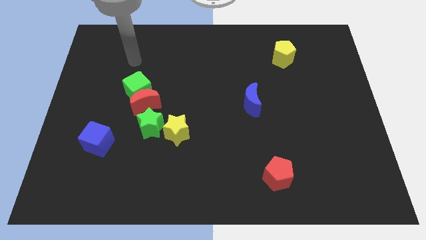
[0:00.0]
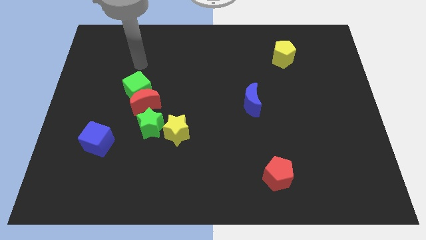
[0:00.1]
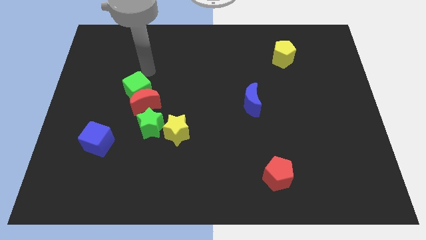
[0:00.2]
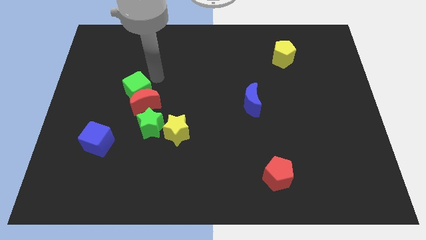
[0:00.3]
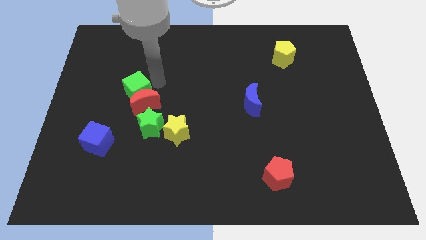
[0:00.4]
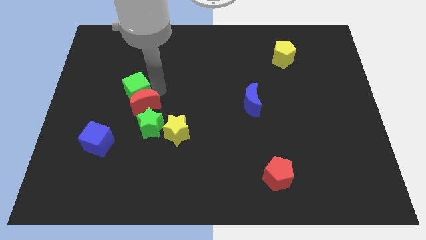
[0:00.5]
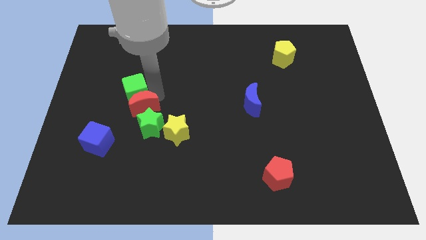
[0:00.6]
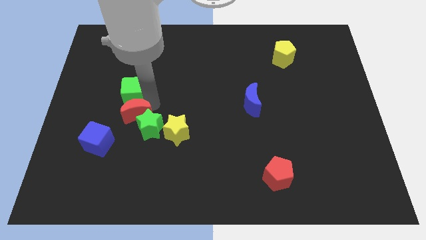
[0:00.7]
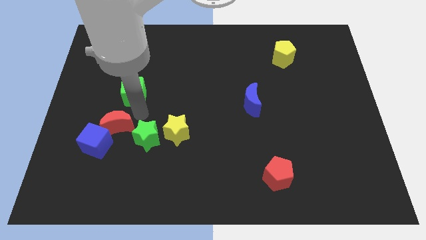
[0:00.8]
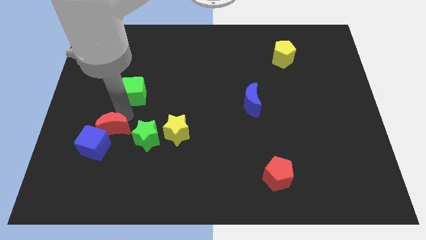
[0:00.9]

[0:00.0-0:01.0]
move the green cube away from the red moon

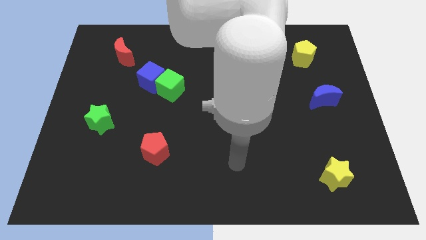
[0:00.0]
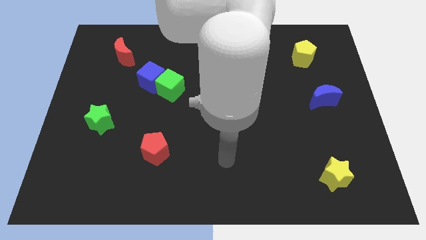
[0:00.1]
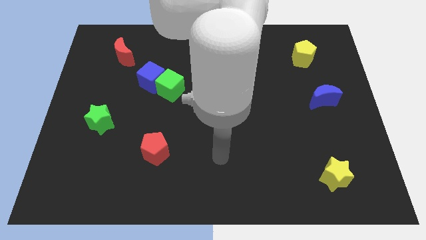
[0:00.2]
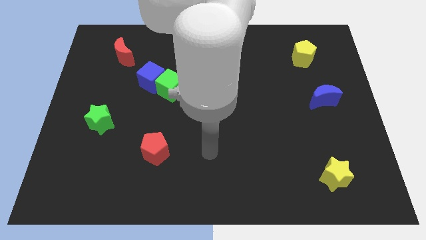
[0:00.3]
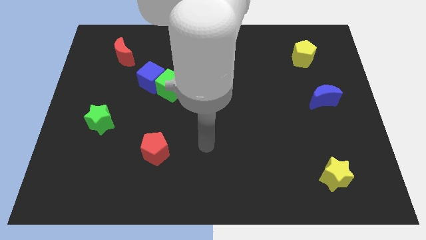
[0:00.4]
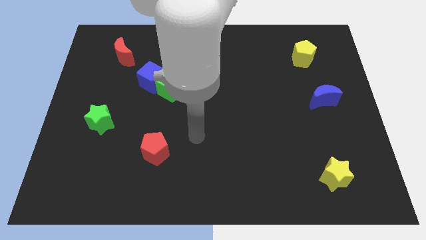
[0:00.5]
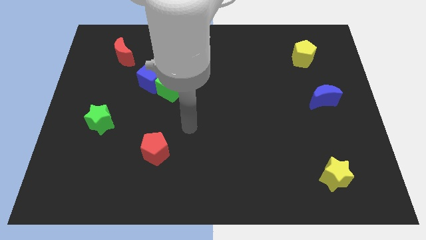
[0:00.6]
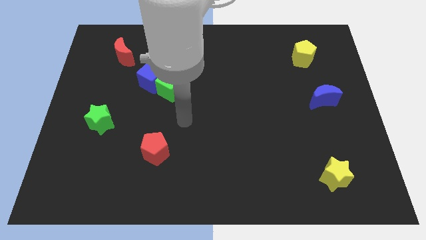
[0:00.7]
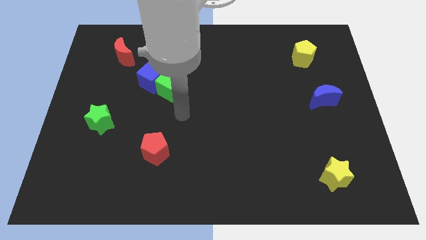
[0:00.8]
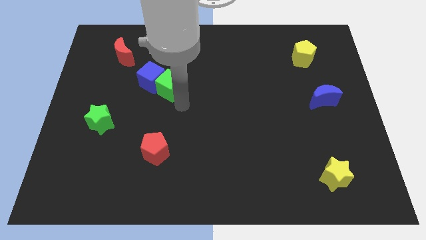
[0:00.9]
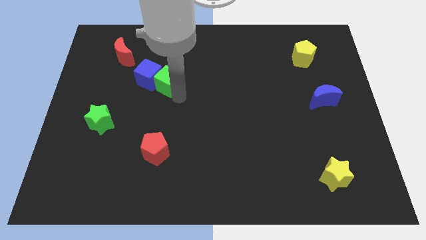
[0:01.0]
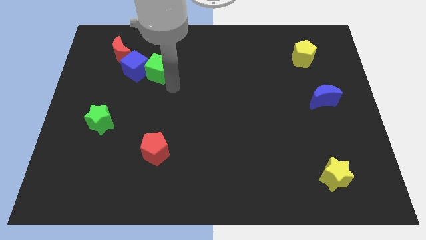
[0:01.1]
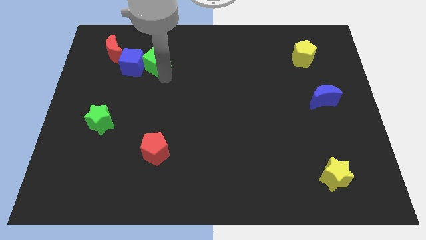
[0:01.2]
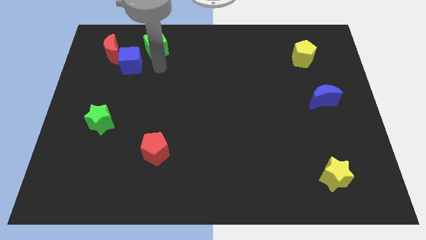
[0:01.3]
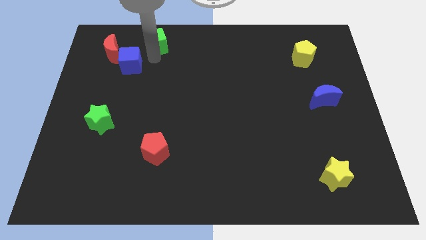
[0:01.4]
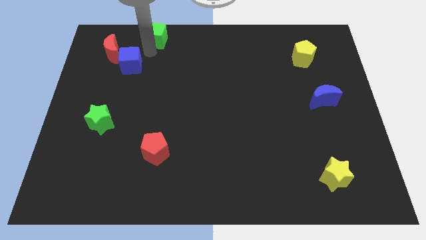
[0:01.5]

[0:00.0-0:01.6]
separate the blue cube from the green cube

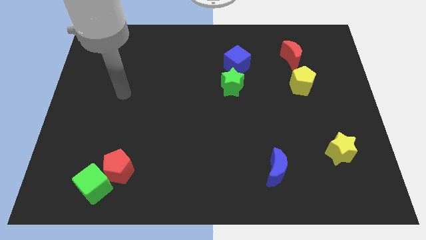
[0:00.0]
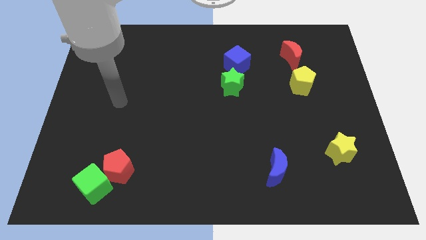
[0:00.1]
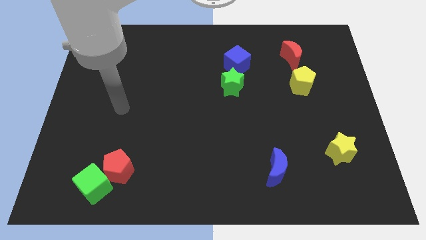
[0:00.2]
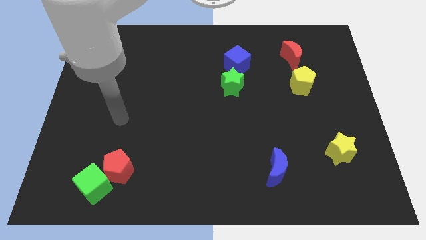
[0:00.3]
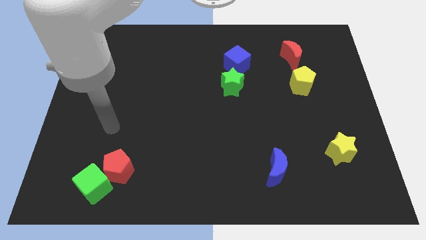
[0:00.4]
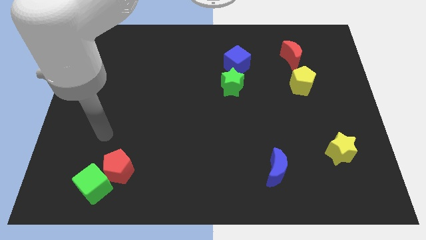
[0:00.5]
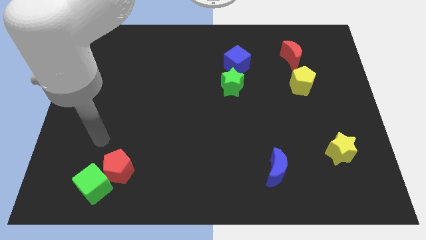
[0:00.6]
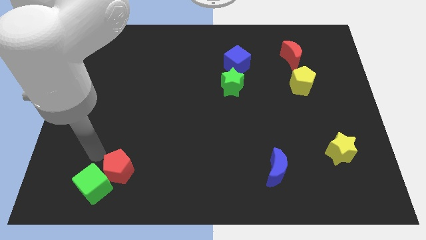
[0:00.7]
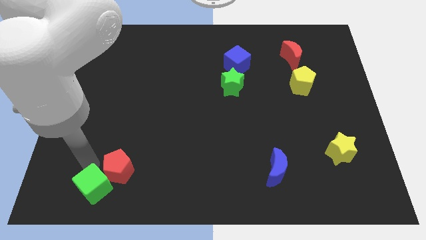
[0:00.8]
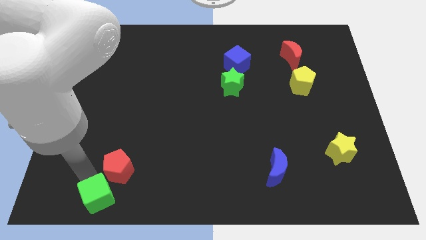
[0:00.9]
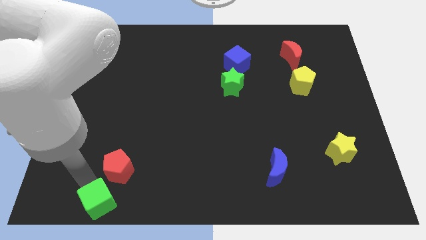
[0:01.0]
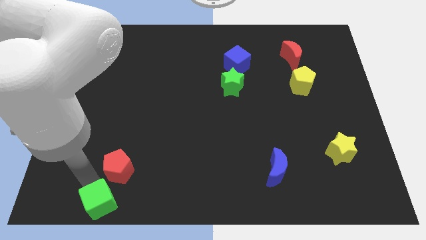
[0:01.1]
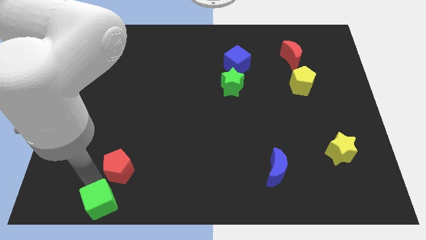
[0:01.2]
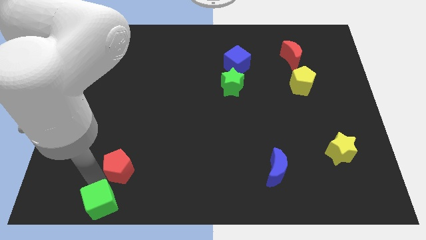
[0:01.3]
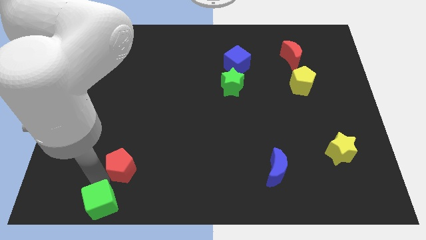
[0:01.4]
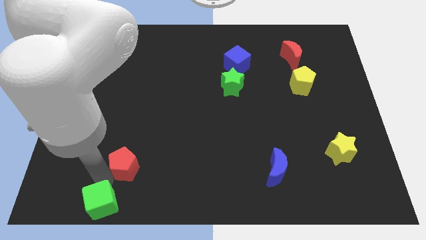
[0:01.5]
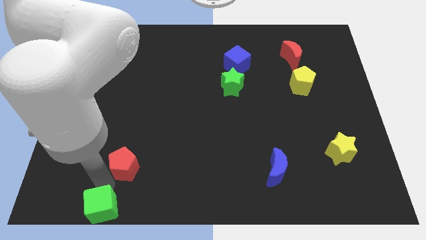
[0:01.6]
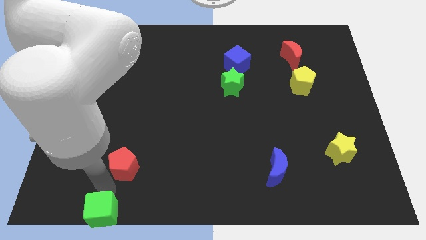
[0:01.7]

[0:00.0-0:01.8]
separate the red pentagon from the green cube

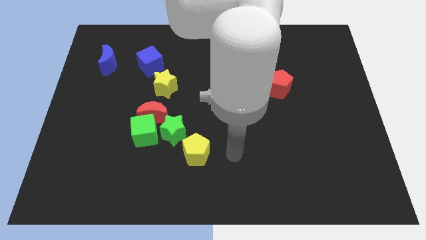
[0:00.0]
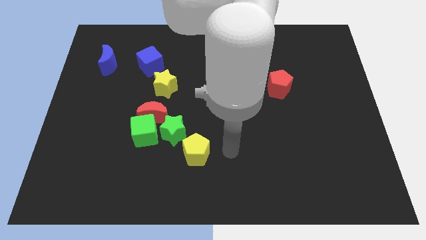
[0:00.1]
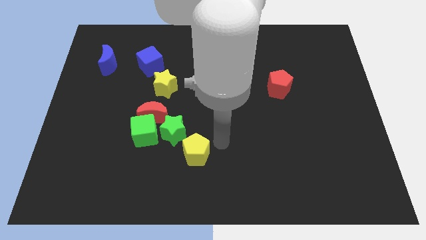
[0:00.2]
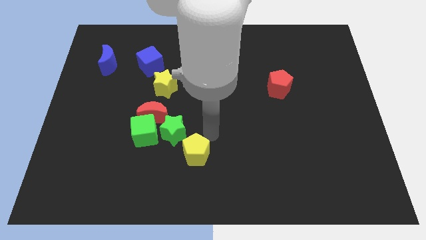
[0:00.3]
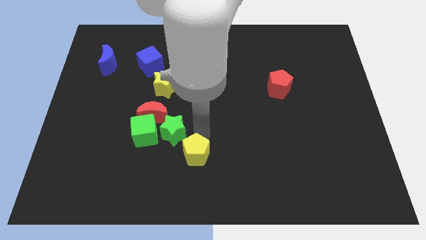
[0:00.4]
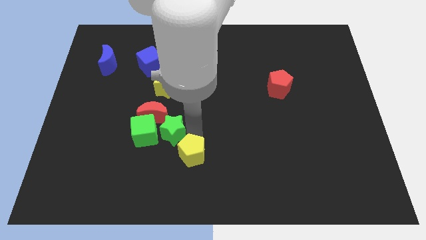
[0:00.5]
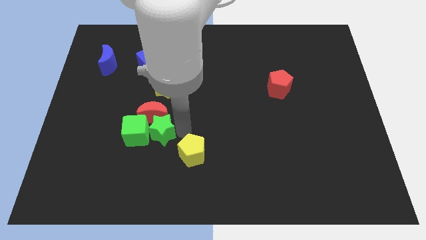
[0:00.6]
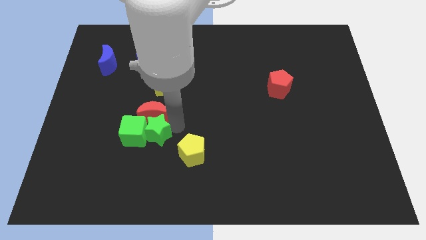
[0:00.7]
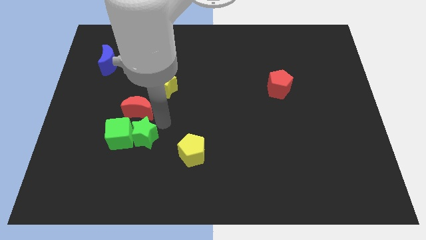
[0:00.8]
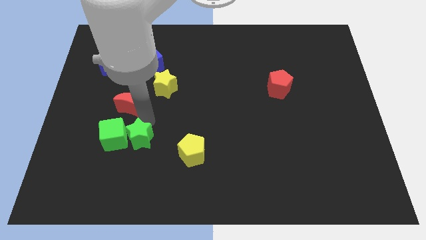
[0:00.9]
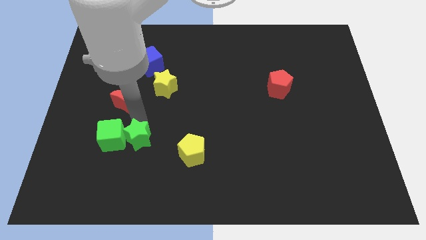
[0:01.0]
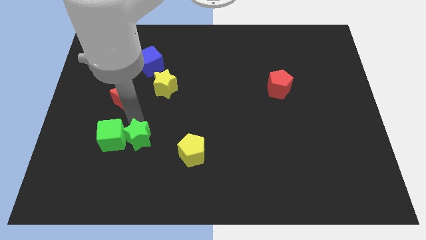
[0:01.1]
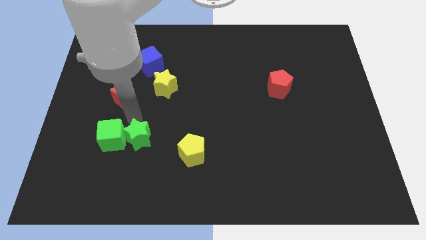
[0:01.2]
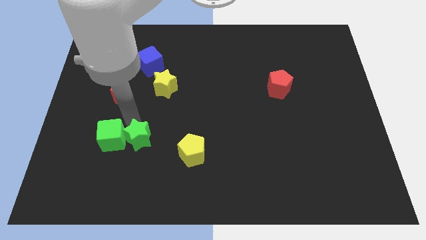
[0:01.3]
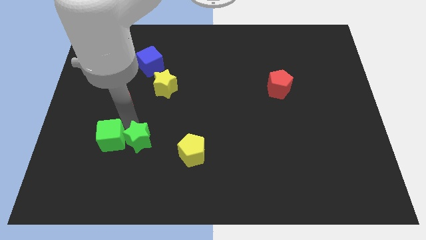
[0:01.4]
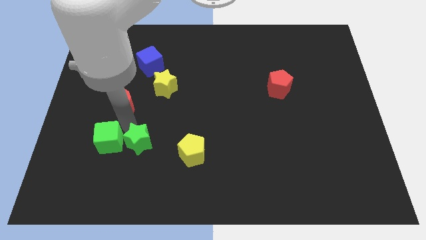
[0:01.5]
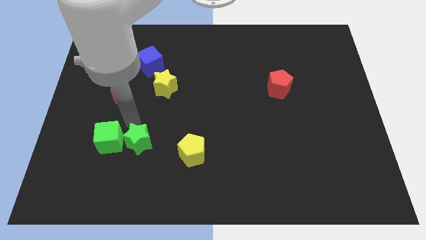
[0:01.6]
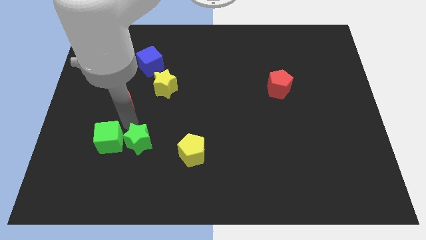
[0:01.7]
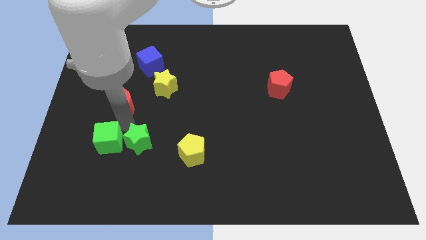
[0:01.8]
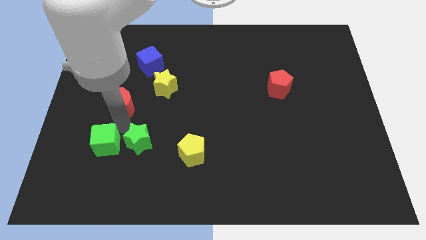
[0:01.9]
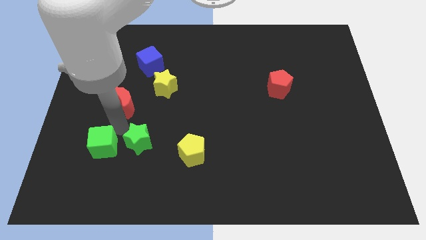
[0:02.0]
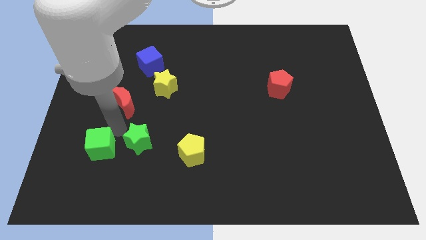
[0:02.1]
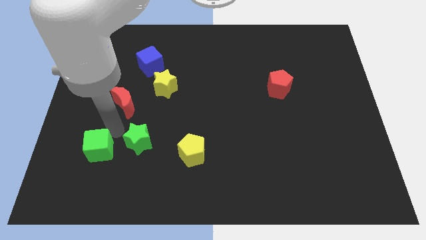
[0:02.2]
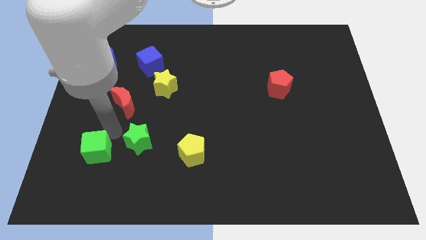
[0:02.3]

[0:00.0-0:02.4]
separate the green cube from the red moon and green star

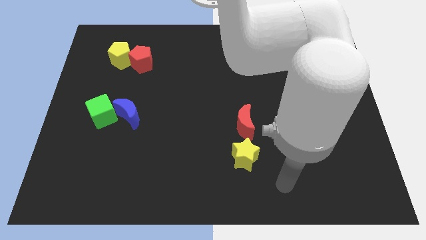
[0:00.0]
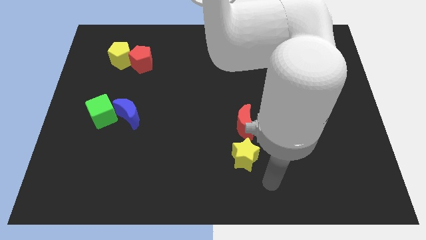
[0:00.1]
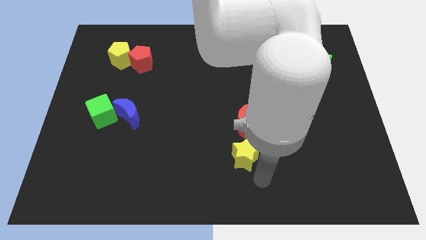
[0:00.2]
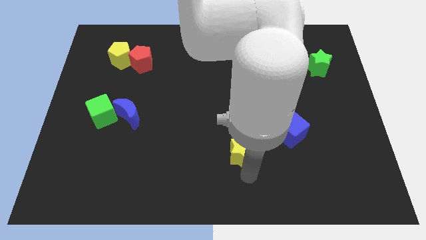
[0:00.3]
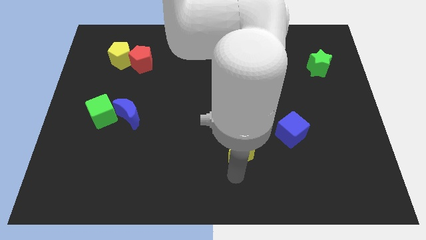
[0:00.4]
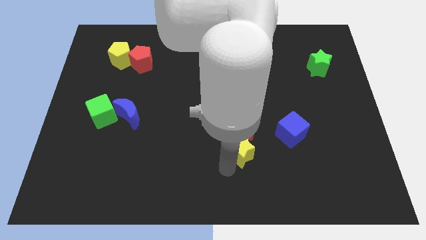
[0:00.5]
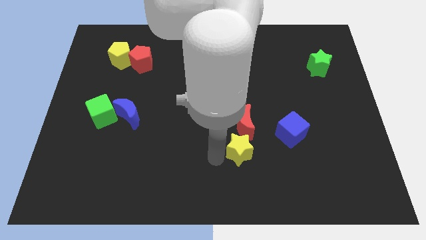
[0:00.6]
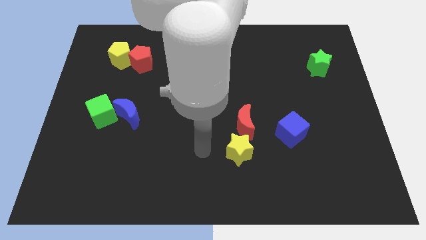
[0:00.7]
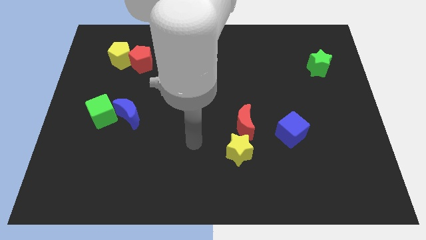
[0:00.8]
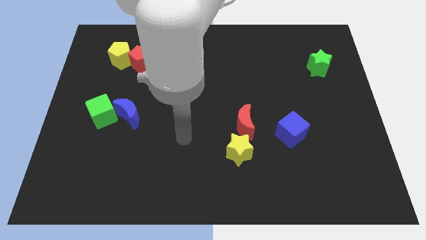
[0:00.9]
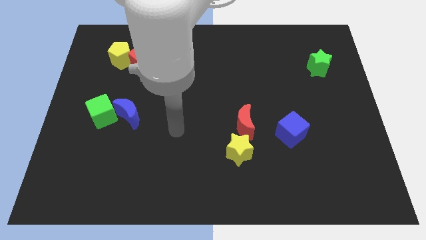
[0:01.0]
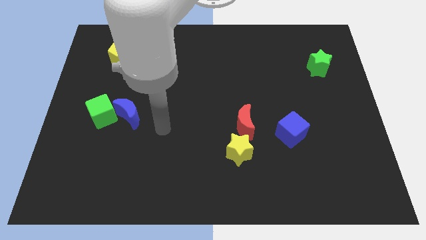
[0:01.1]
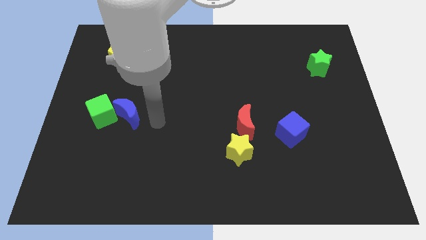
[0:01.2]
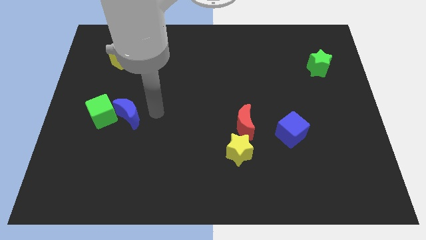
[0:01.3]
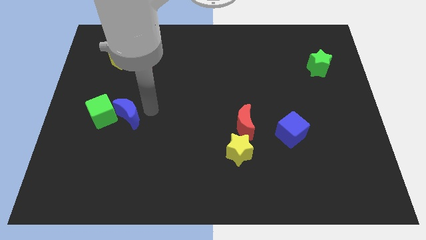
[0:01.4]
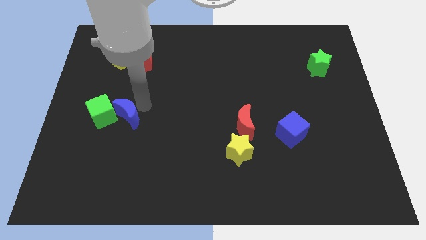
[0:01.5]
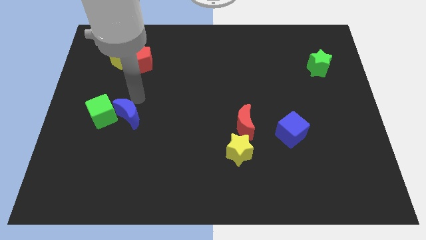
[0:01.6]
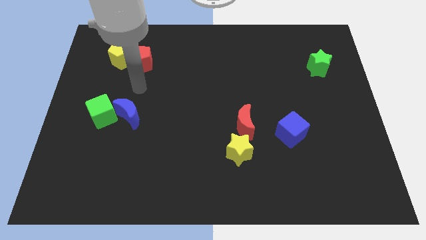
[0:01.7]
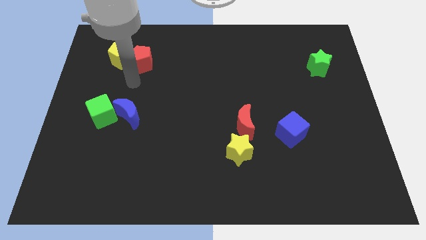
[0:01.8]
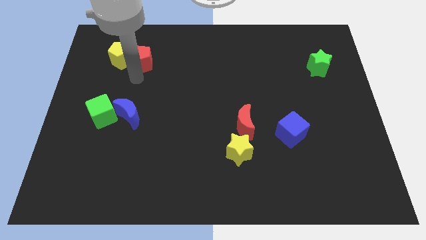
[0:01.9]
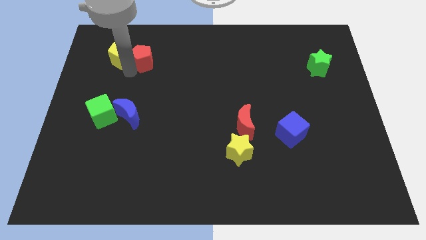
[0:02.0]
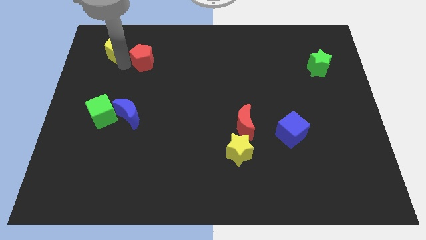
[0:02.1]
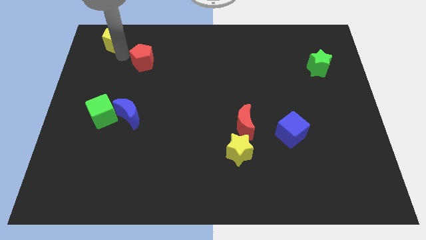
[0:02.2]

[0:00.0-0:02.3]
pull the red pentagon apart from the yellow pentagon

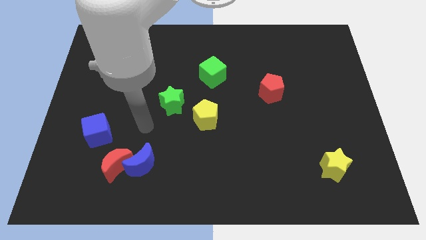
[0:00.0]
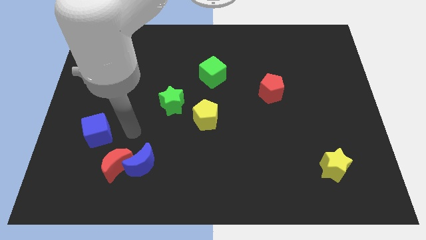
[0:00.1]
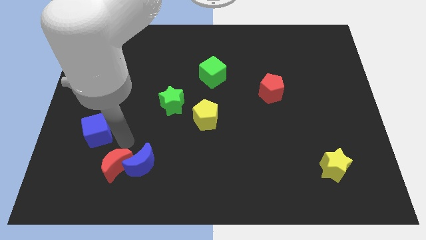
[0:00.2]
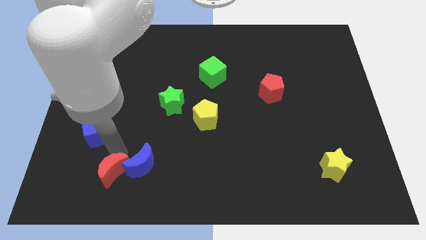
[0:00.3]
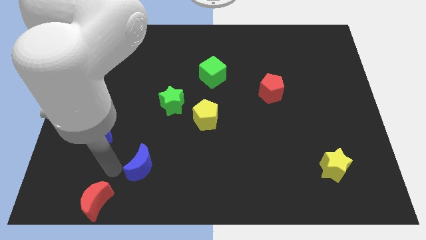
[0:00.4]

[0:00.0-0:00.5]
move the blue moon away from the red moon
